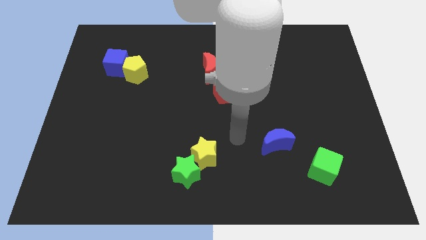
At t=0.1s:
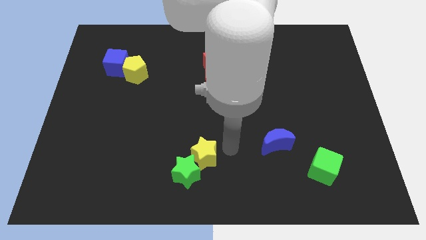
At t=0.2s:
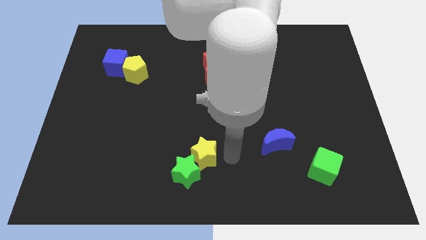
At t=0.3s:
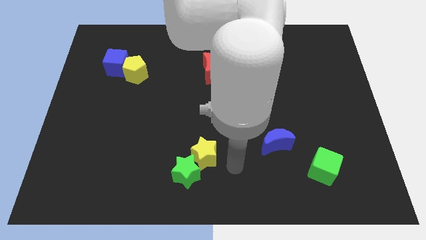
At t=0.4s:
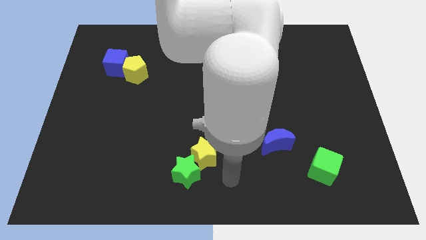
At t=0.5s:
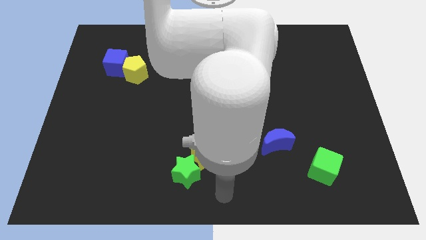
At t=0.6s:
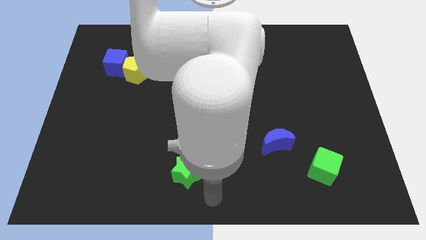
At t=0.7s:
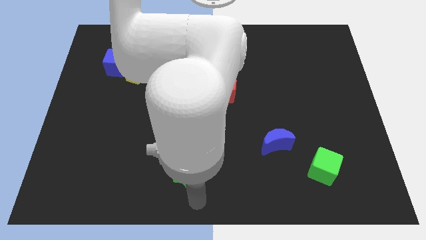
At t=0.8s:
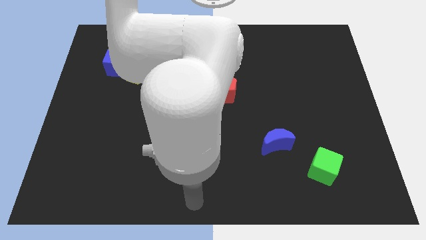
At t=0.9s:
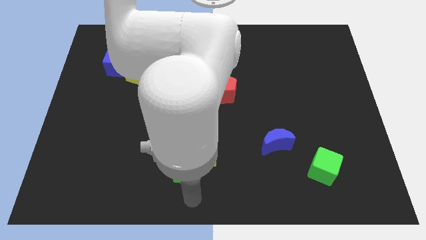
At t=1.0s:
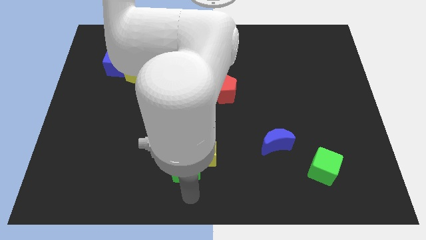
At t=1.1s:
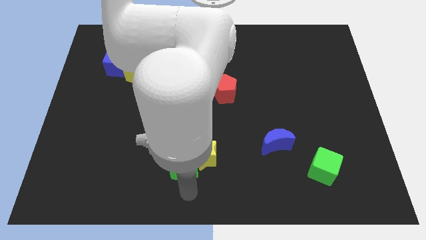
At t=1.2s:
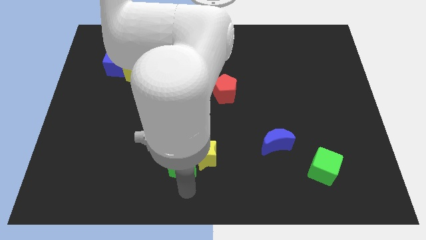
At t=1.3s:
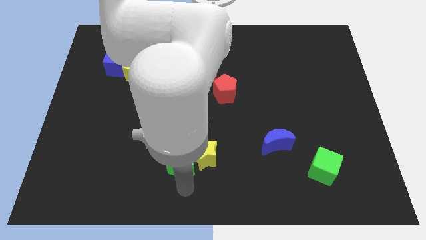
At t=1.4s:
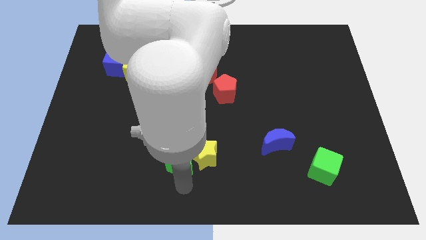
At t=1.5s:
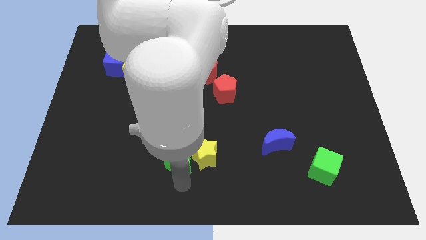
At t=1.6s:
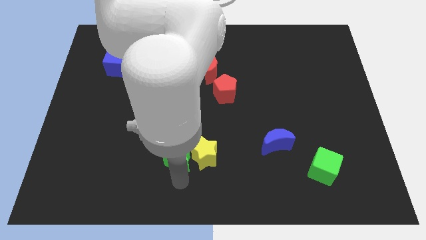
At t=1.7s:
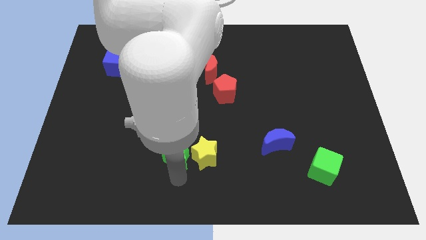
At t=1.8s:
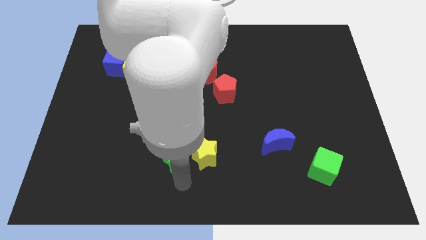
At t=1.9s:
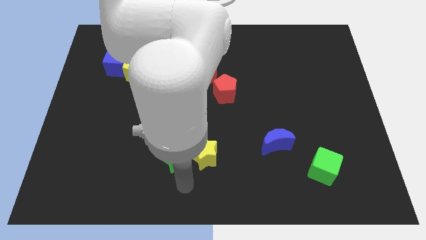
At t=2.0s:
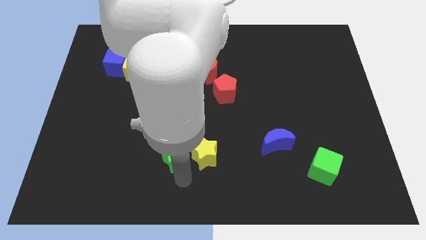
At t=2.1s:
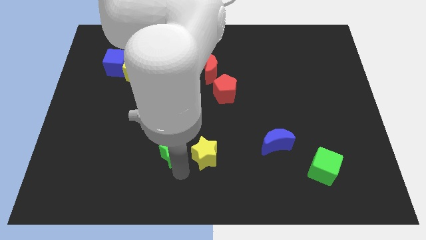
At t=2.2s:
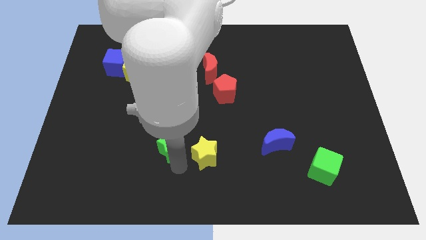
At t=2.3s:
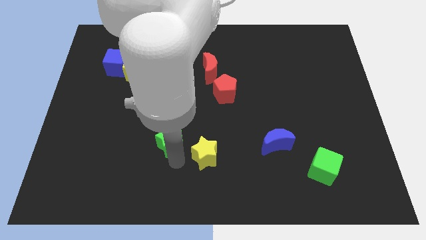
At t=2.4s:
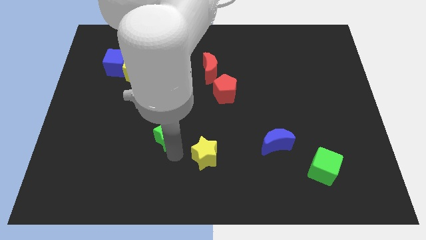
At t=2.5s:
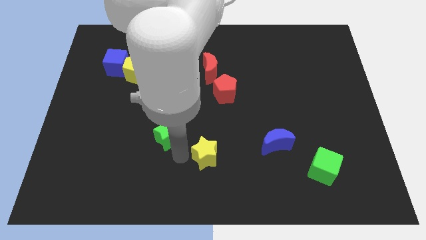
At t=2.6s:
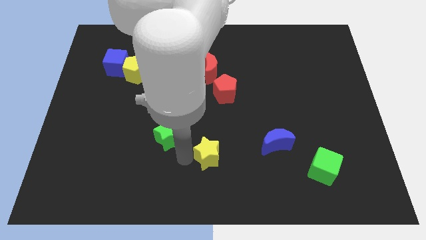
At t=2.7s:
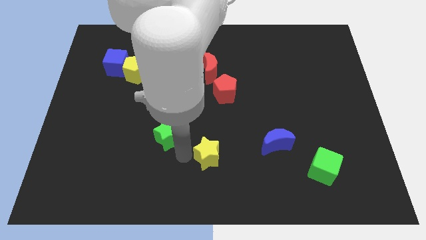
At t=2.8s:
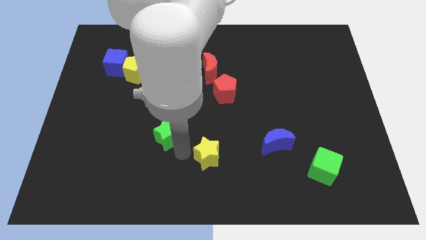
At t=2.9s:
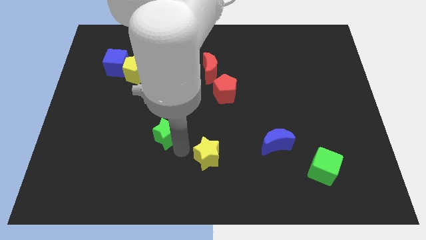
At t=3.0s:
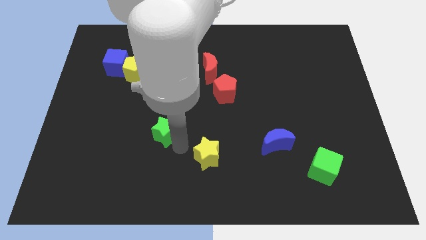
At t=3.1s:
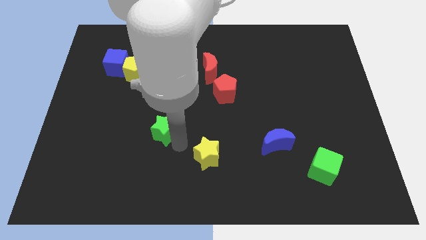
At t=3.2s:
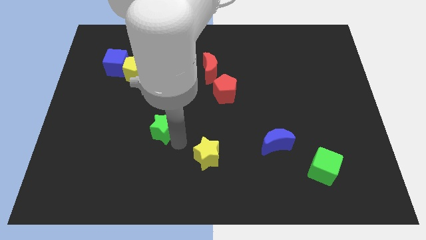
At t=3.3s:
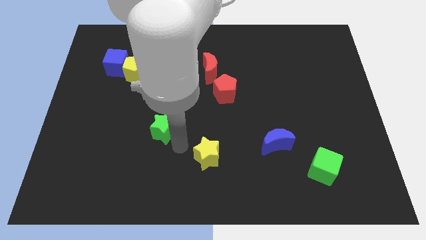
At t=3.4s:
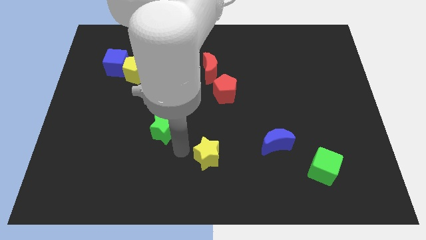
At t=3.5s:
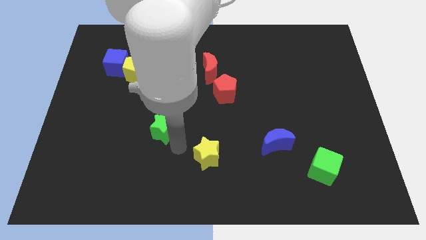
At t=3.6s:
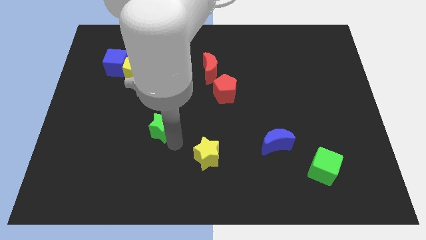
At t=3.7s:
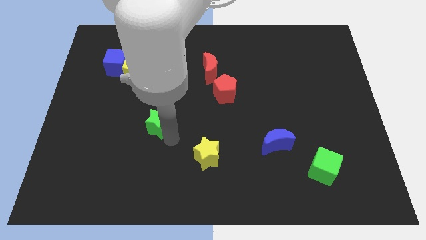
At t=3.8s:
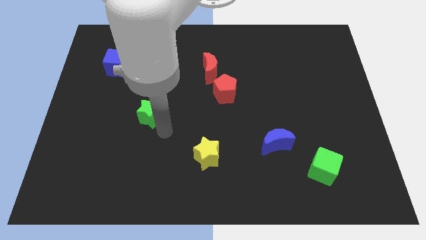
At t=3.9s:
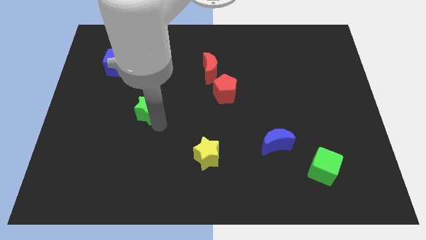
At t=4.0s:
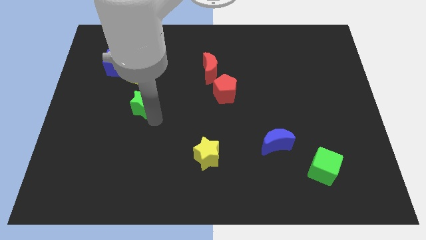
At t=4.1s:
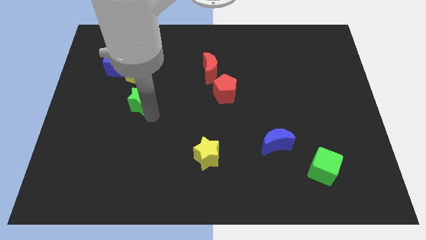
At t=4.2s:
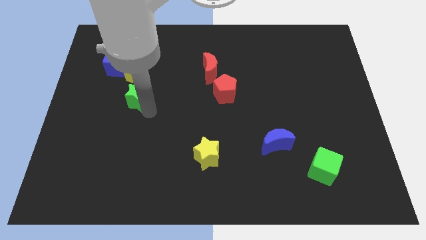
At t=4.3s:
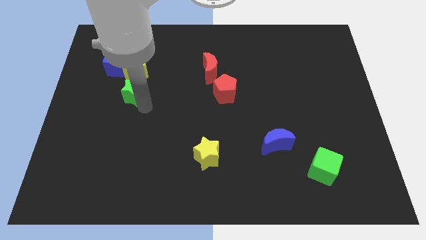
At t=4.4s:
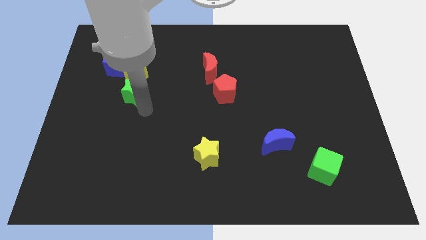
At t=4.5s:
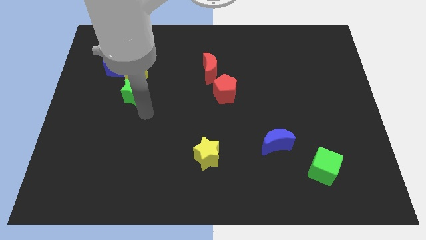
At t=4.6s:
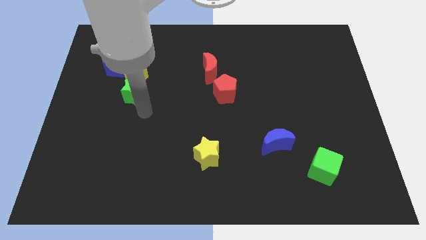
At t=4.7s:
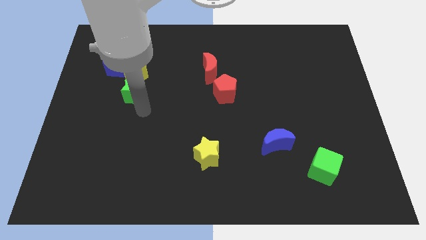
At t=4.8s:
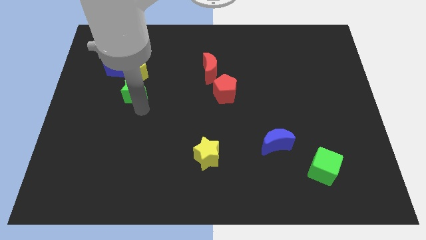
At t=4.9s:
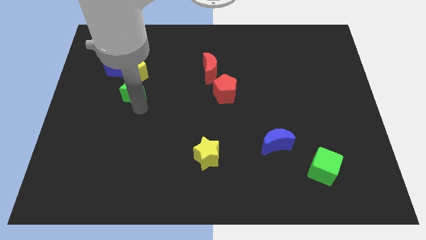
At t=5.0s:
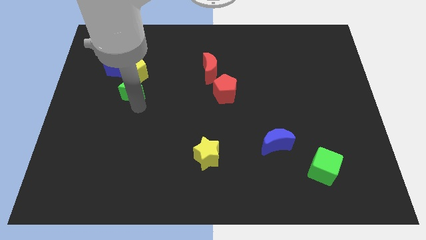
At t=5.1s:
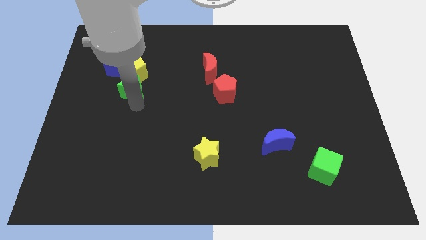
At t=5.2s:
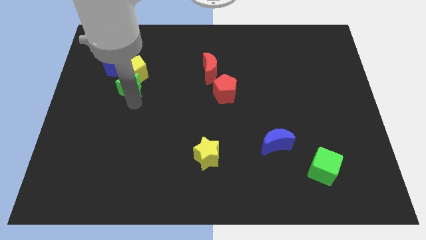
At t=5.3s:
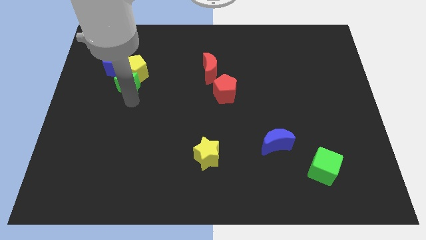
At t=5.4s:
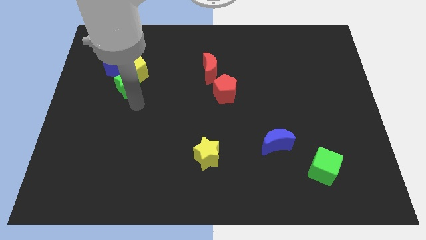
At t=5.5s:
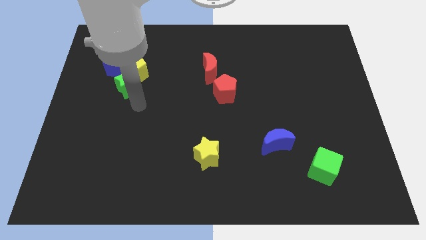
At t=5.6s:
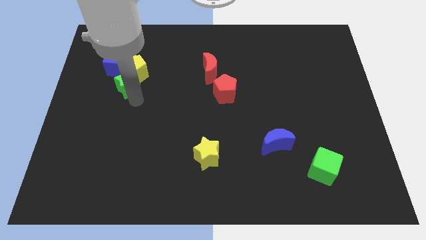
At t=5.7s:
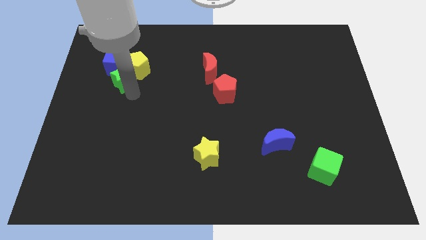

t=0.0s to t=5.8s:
put the green star next to the blue cube

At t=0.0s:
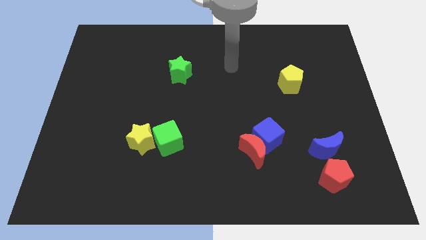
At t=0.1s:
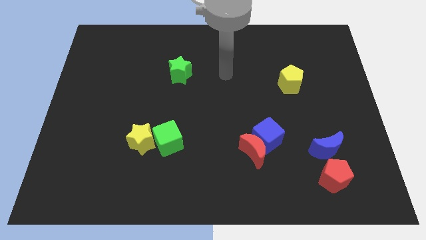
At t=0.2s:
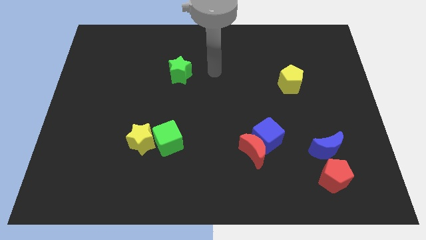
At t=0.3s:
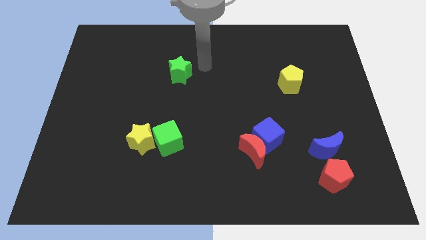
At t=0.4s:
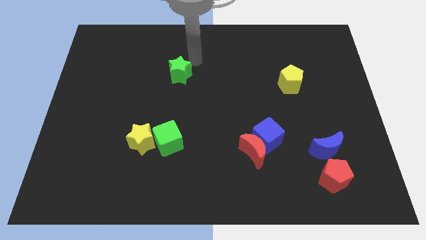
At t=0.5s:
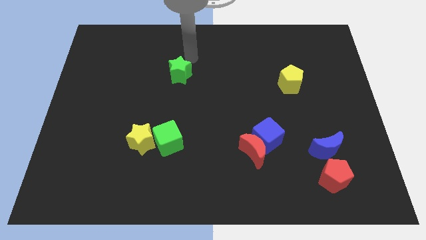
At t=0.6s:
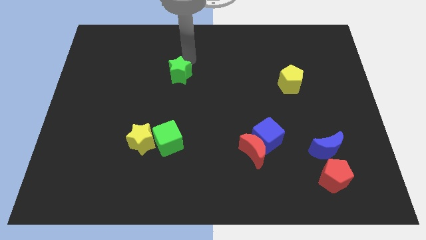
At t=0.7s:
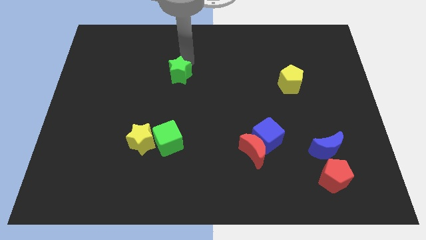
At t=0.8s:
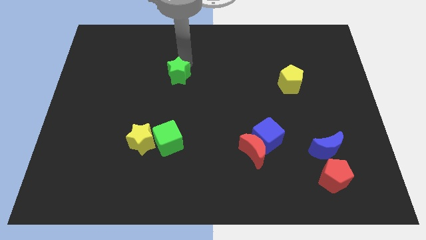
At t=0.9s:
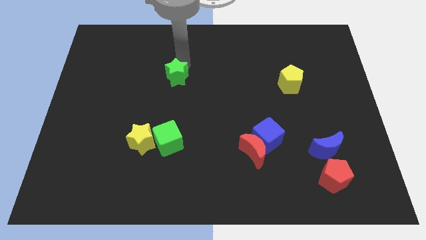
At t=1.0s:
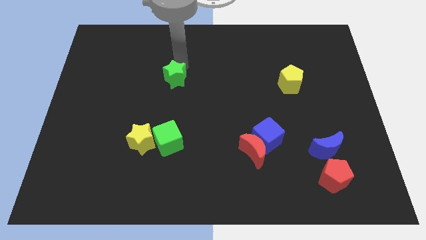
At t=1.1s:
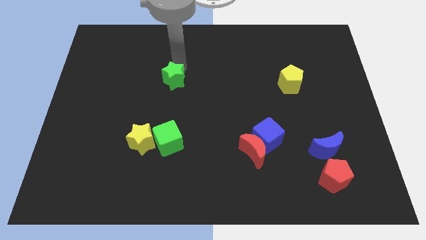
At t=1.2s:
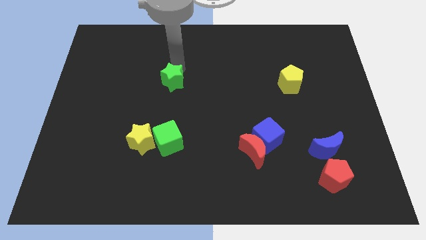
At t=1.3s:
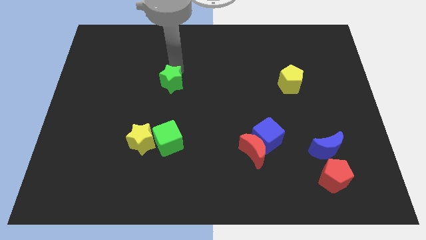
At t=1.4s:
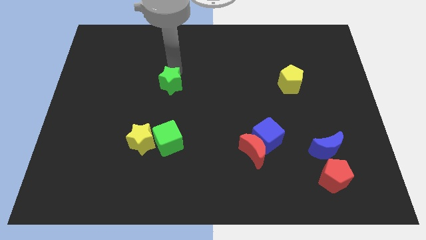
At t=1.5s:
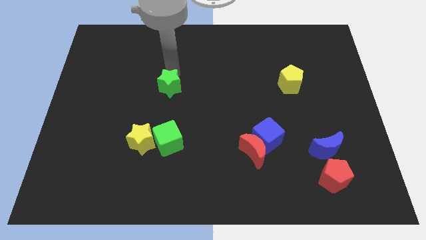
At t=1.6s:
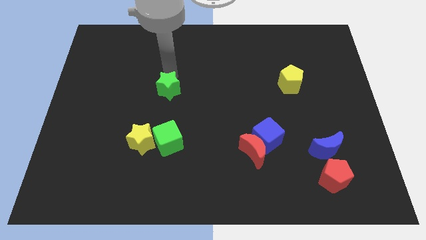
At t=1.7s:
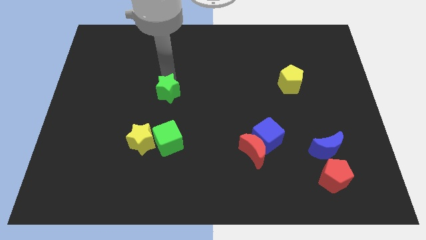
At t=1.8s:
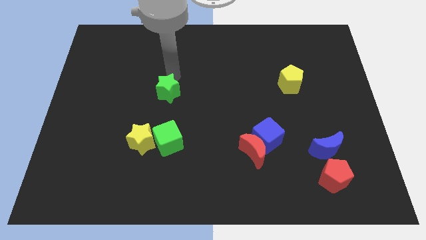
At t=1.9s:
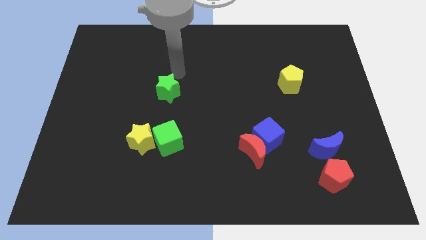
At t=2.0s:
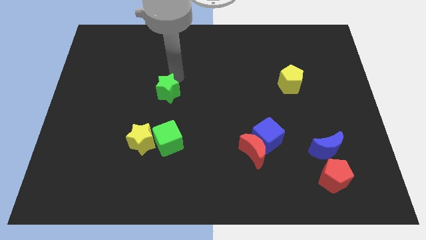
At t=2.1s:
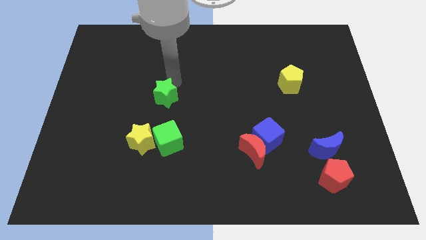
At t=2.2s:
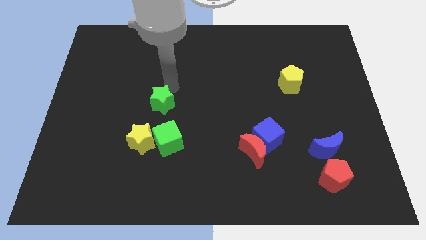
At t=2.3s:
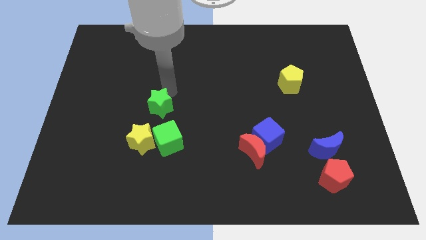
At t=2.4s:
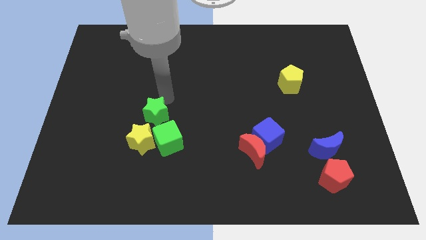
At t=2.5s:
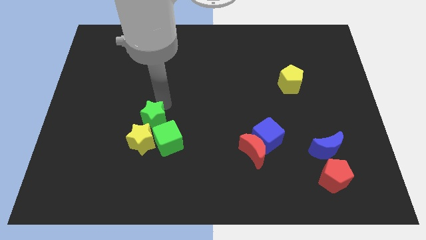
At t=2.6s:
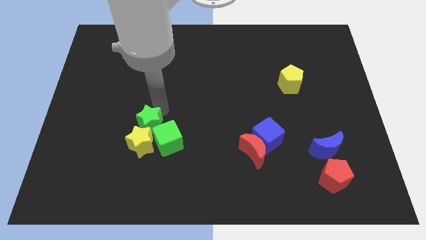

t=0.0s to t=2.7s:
push the green star towards the yellow star
